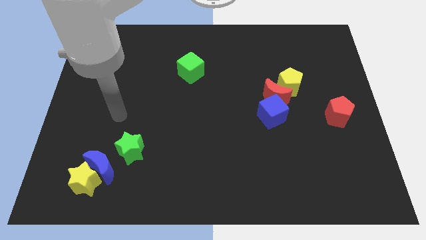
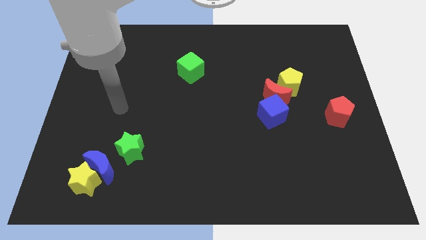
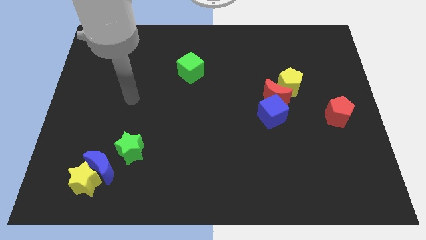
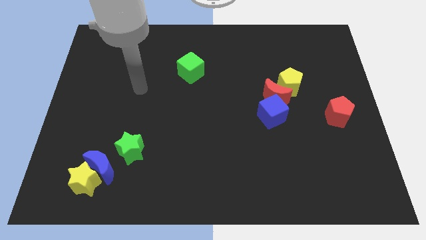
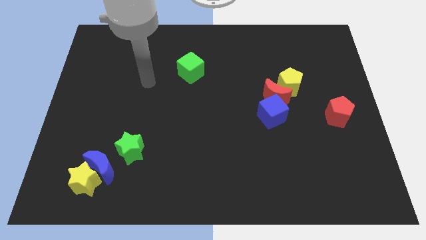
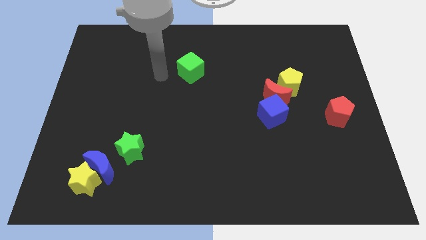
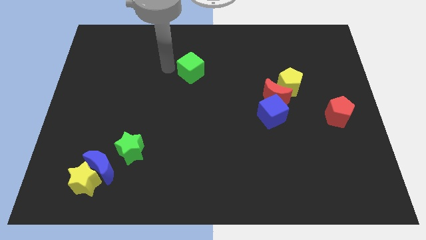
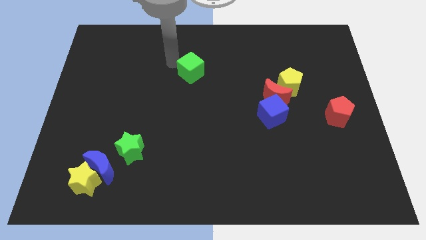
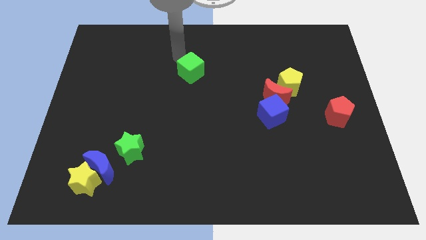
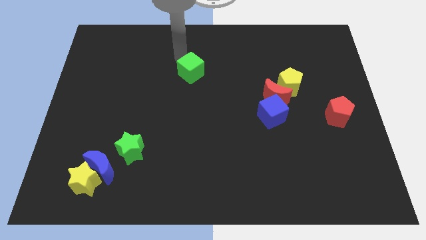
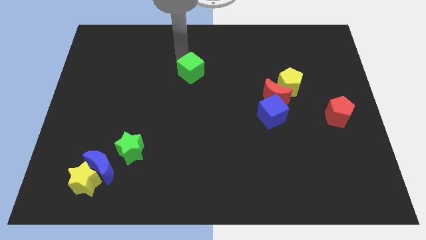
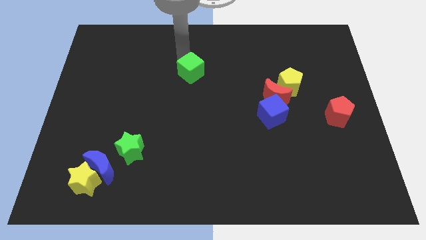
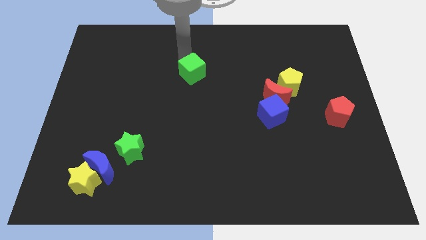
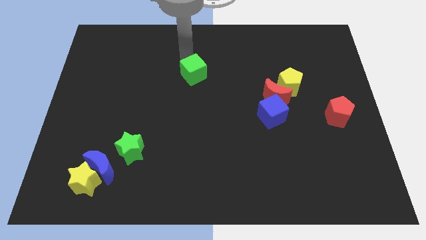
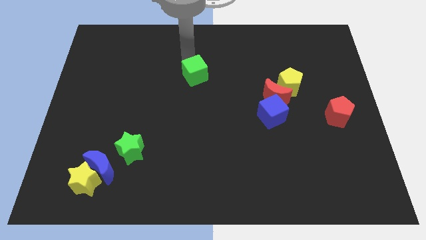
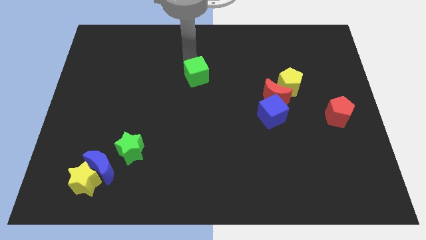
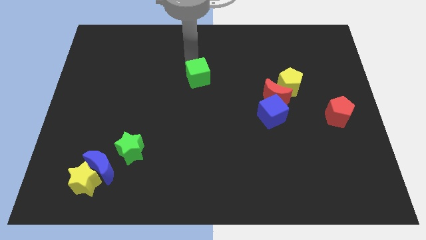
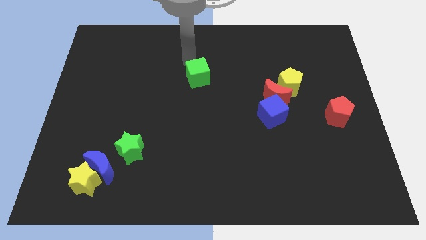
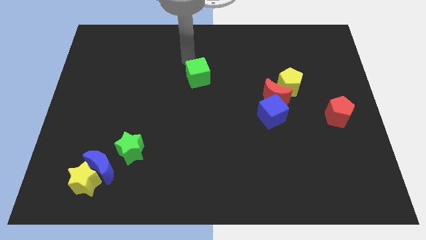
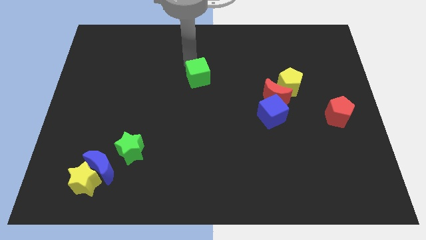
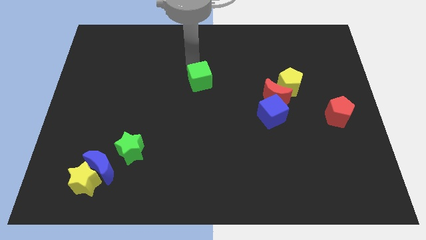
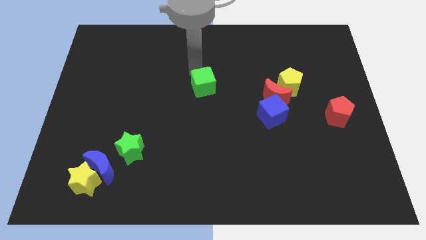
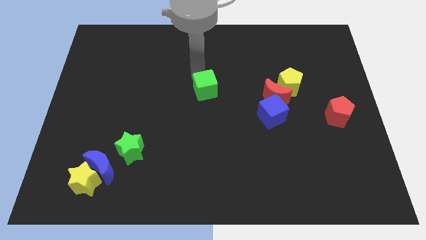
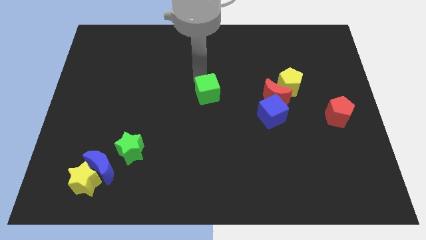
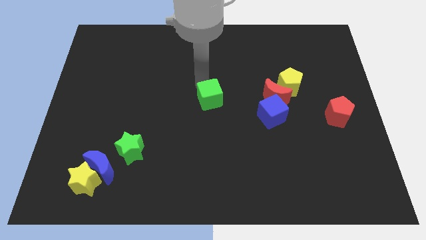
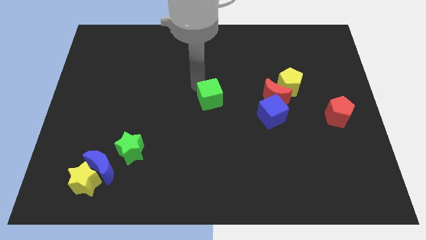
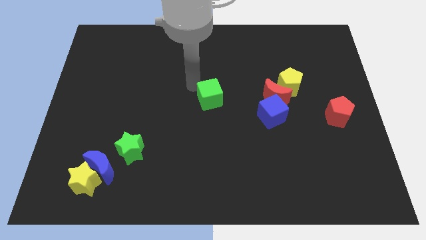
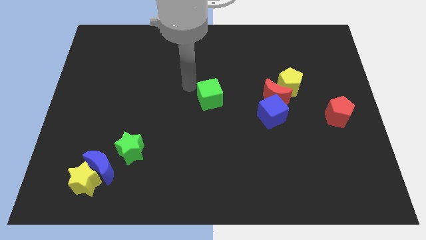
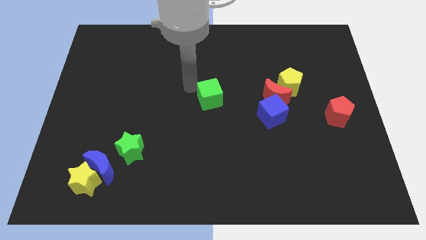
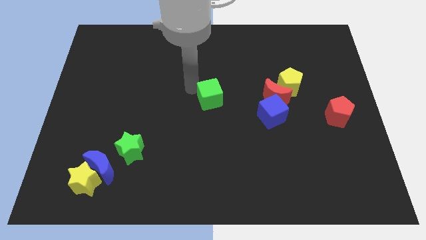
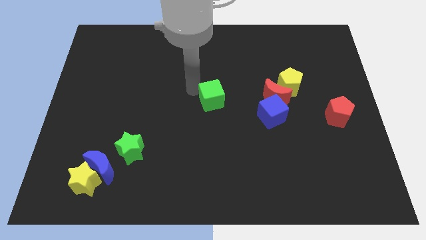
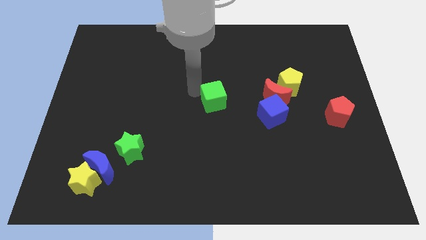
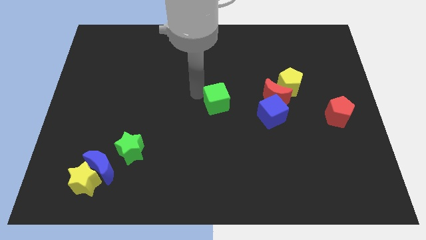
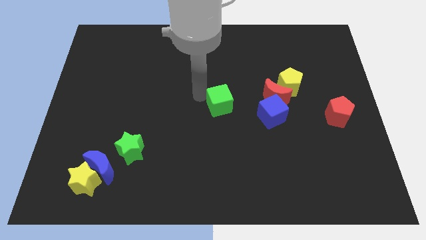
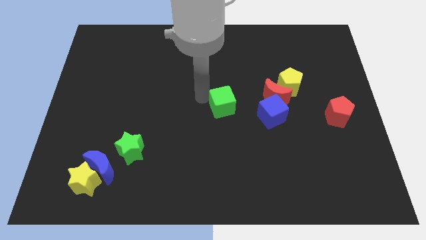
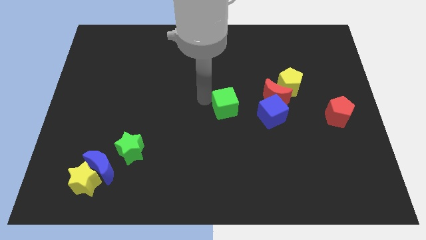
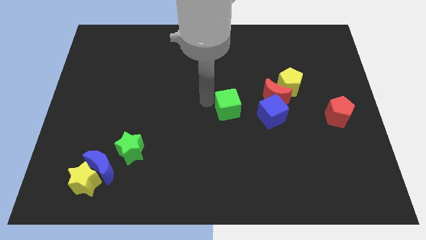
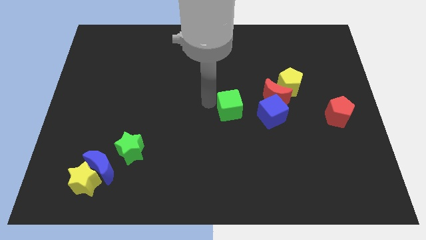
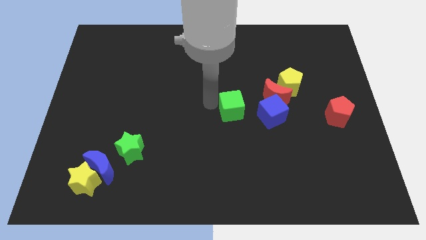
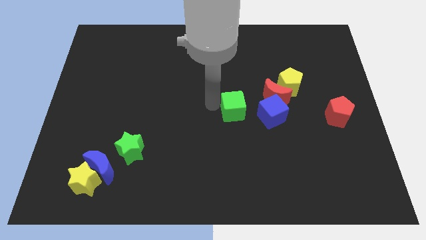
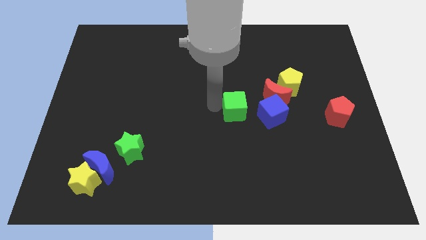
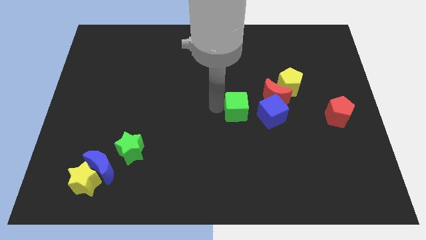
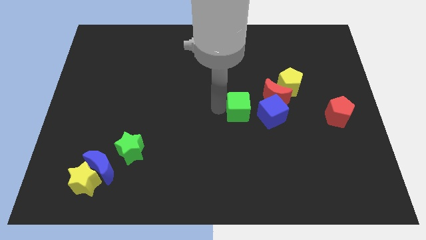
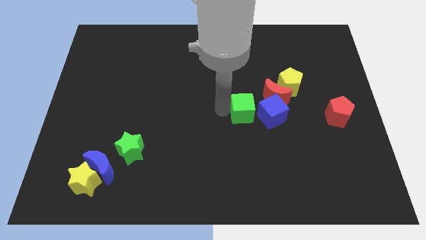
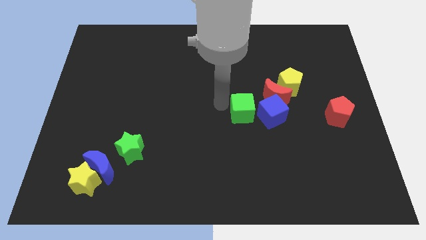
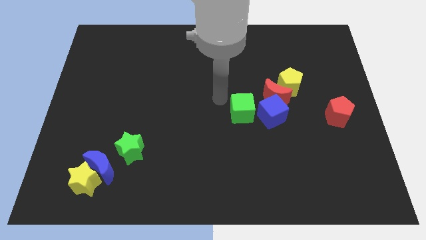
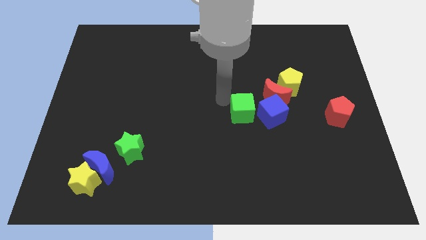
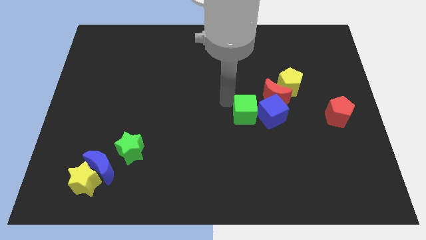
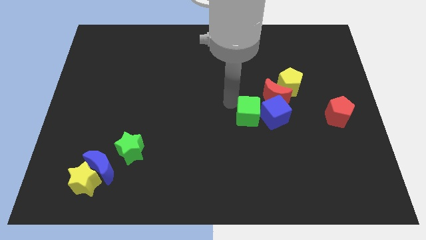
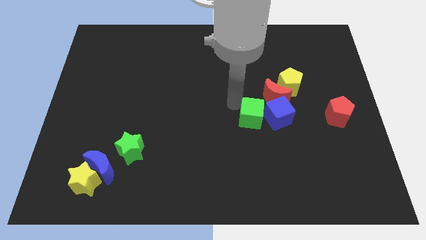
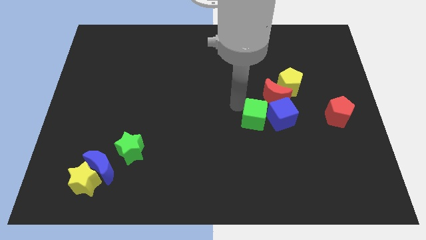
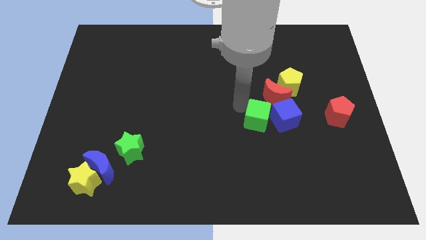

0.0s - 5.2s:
slide the green cube to the bottom of the red moon

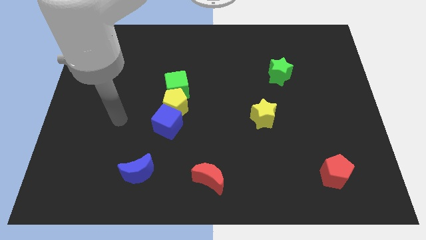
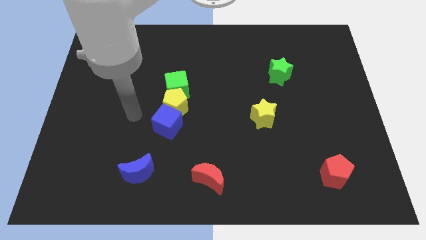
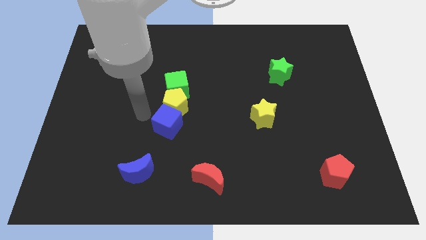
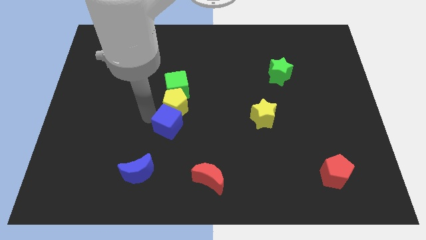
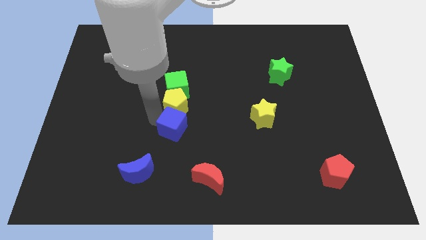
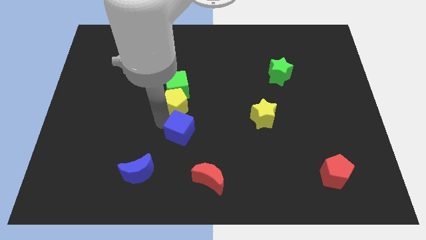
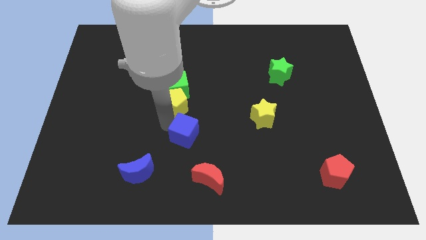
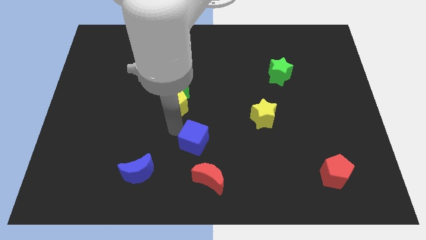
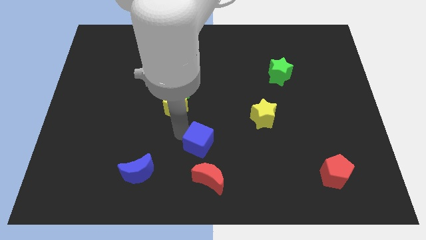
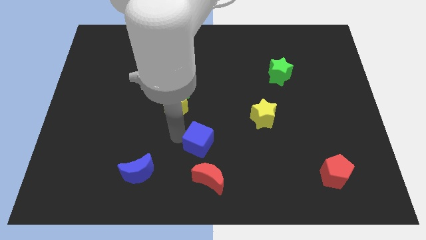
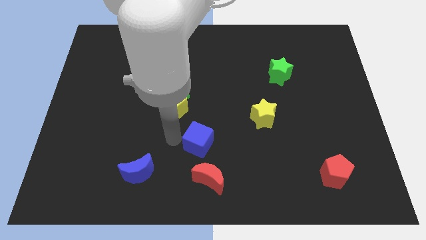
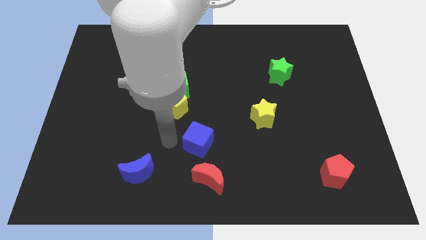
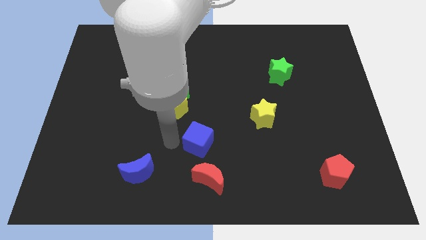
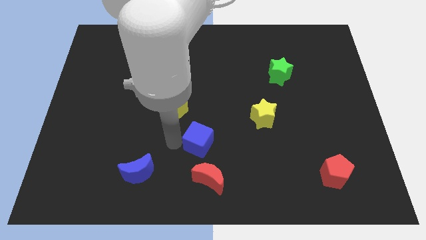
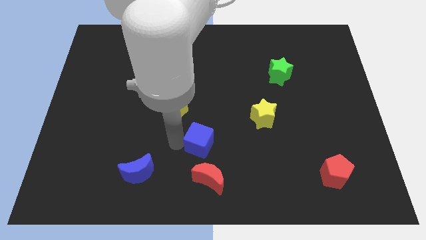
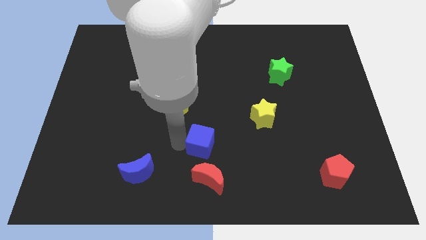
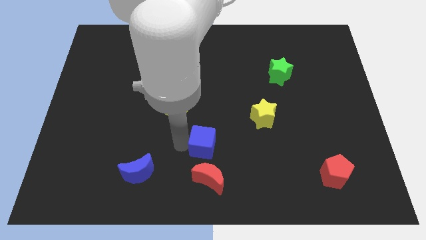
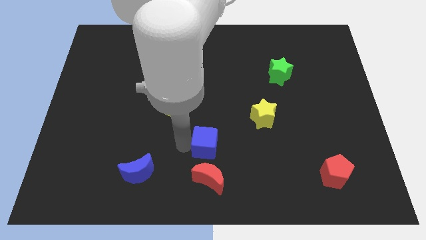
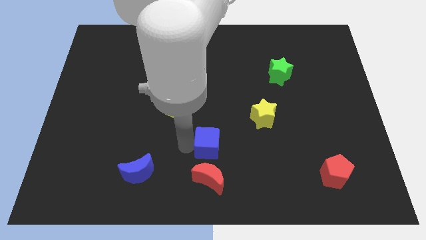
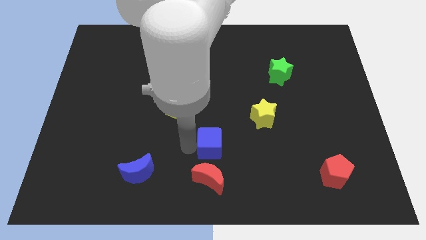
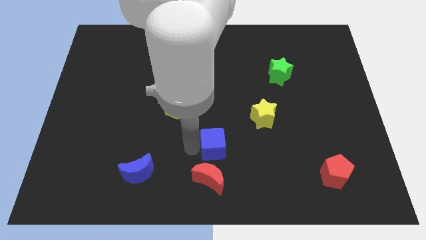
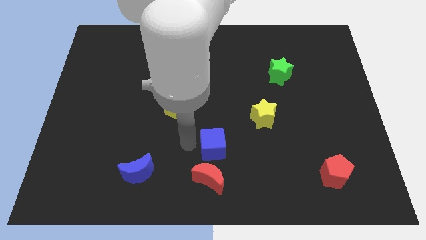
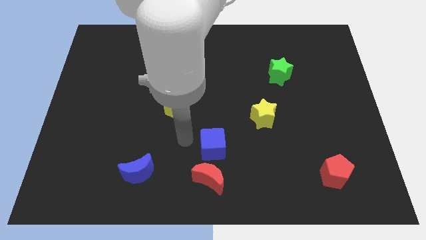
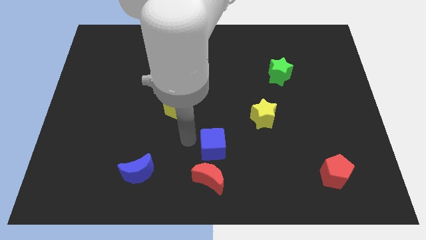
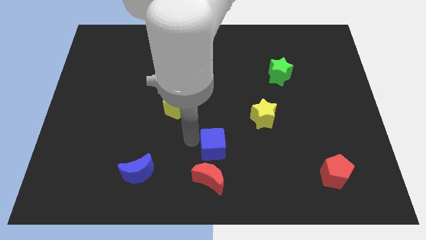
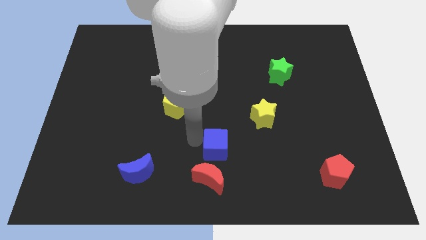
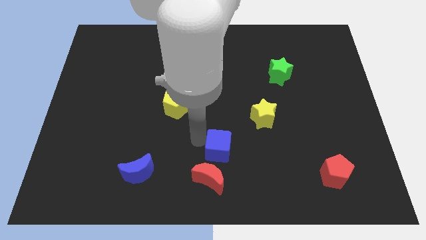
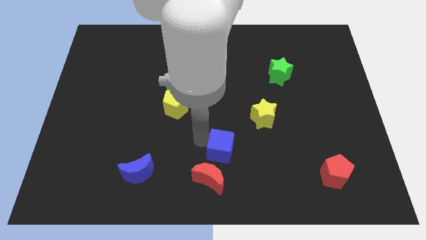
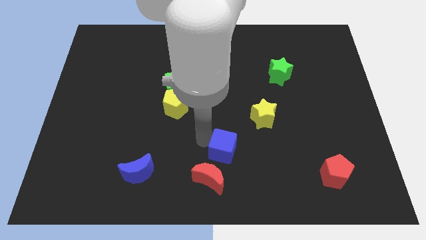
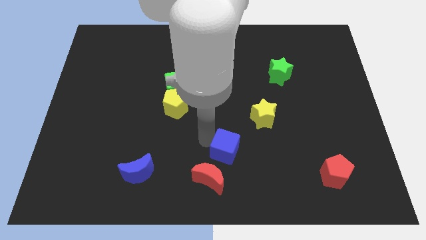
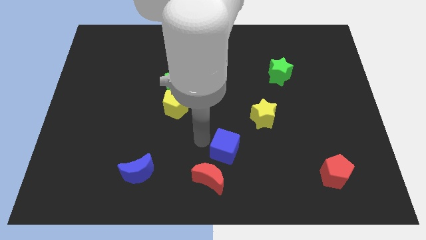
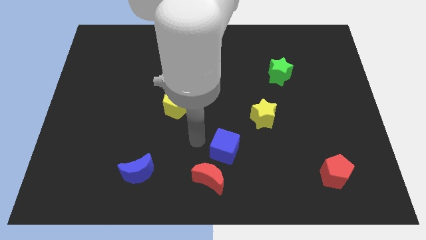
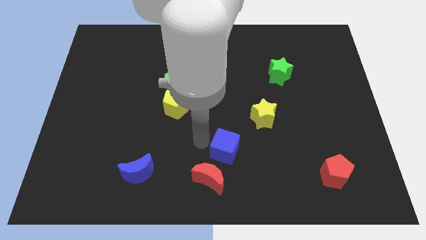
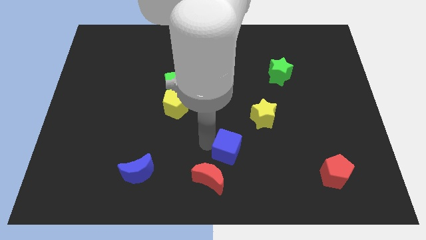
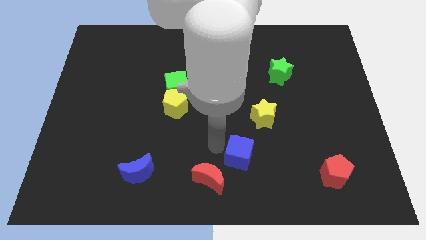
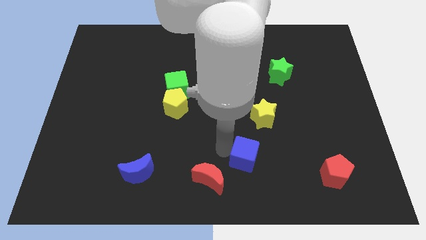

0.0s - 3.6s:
slide the blue cube to the bottom side of the yellow star
